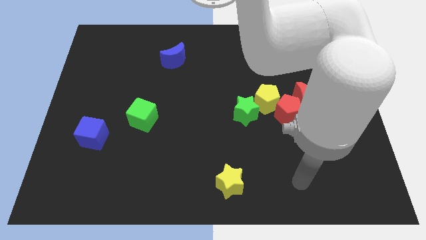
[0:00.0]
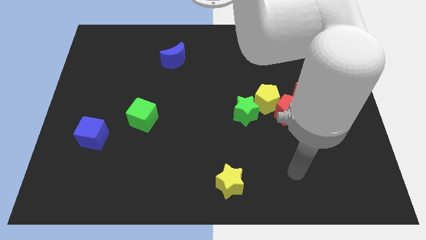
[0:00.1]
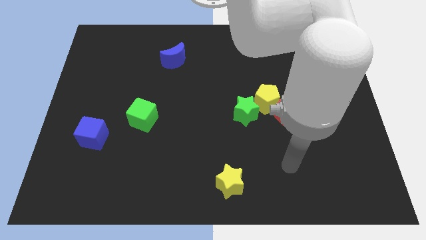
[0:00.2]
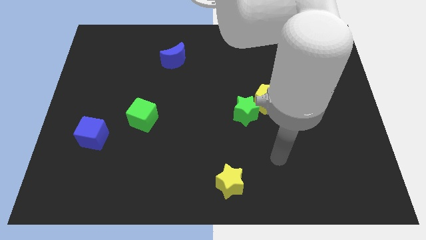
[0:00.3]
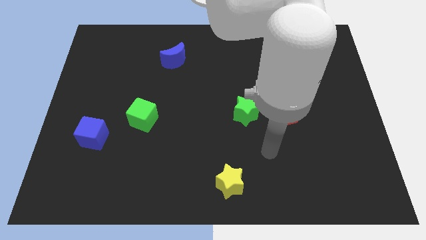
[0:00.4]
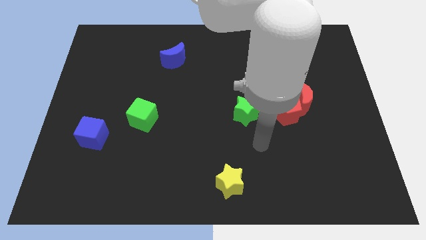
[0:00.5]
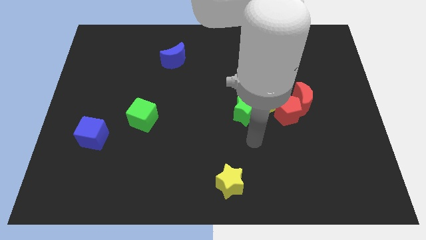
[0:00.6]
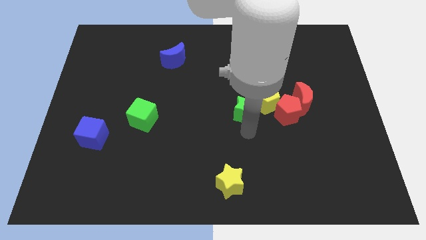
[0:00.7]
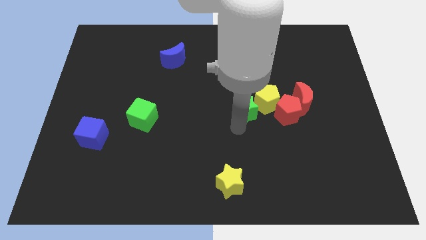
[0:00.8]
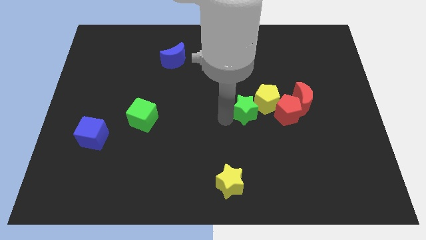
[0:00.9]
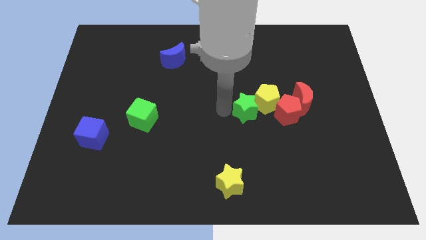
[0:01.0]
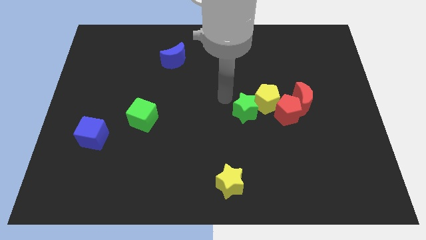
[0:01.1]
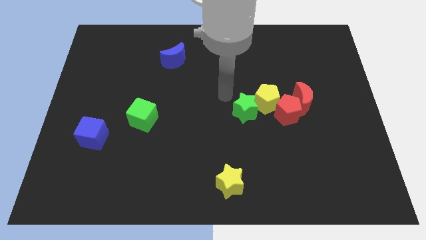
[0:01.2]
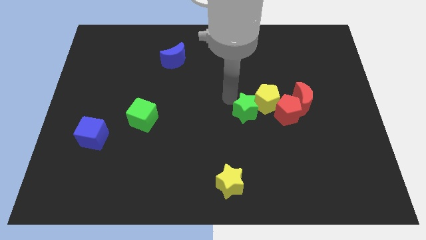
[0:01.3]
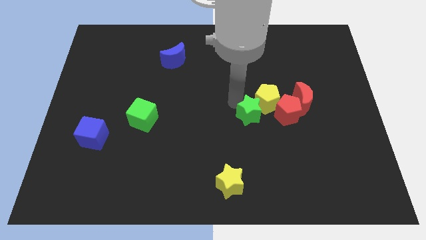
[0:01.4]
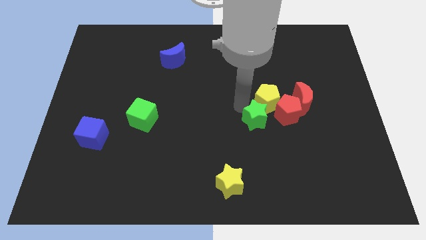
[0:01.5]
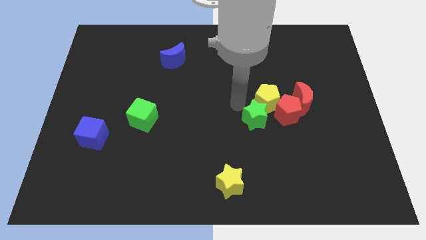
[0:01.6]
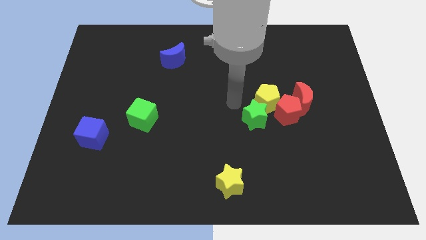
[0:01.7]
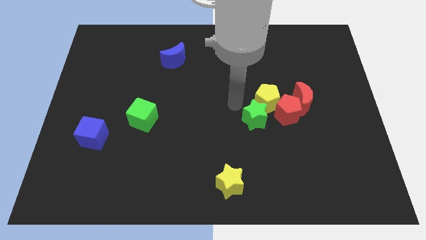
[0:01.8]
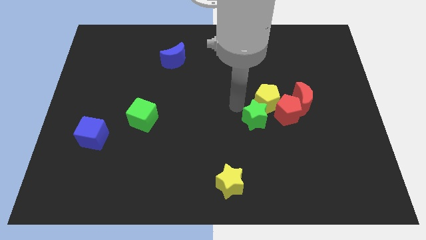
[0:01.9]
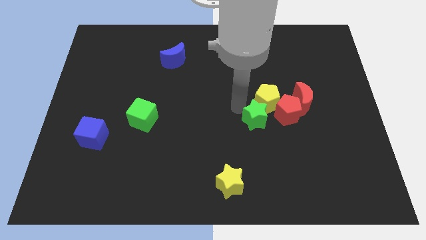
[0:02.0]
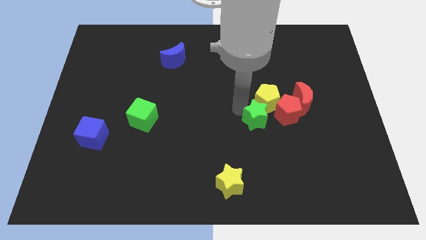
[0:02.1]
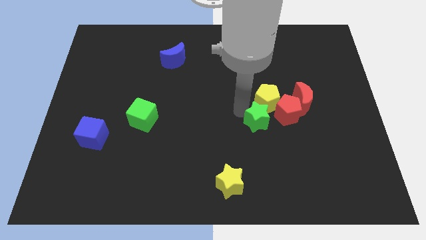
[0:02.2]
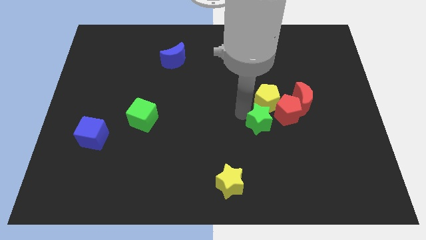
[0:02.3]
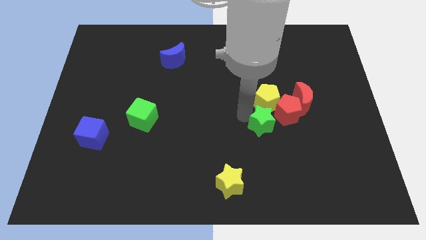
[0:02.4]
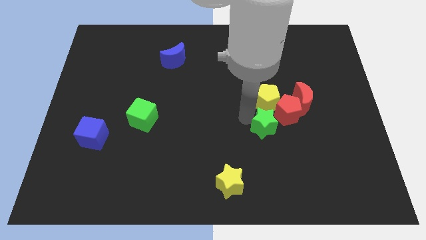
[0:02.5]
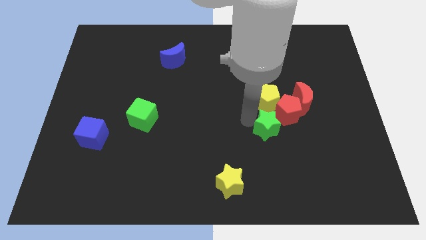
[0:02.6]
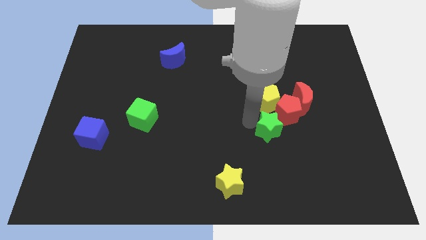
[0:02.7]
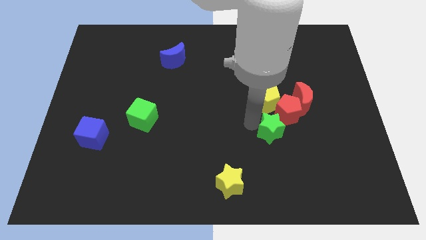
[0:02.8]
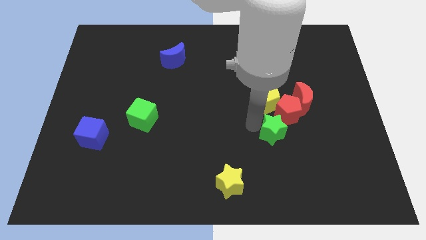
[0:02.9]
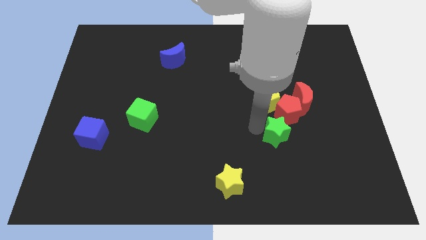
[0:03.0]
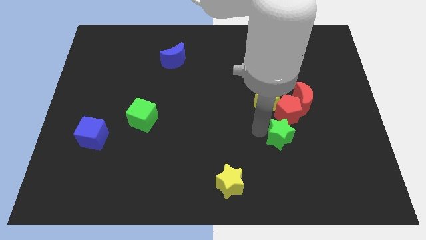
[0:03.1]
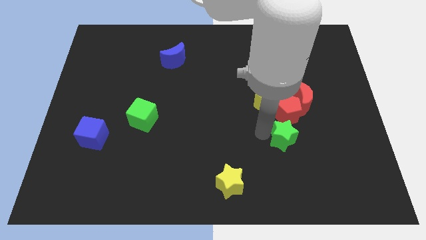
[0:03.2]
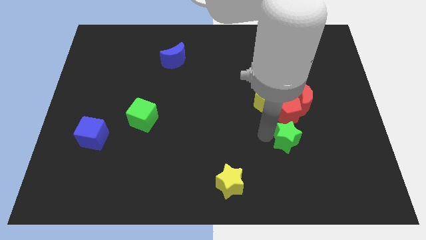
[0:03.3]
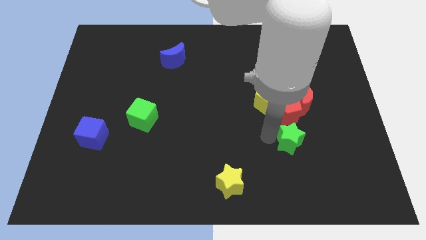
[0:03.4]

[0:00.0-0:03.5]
slightly slide the green star to the right

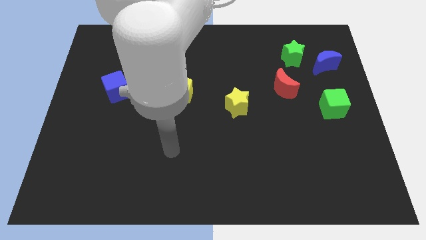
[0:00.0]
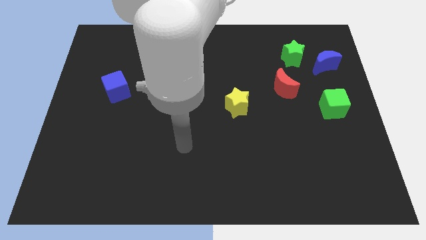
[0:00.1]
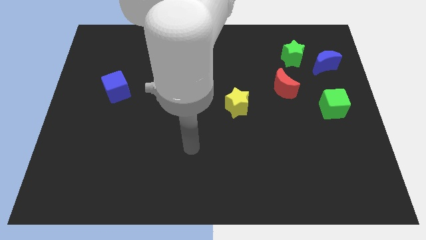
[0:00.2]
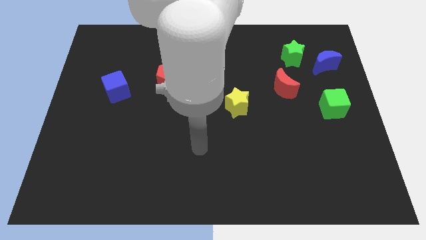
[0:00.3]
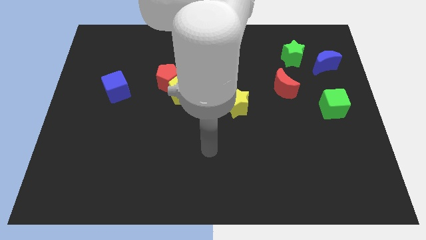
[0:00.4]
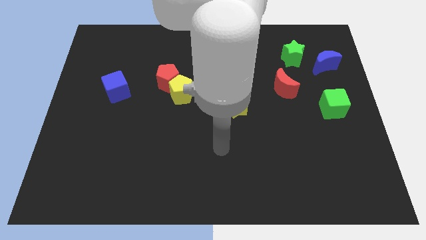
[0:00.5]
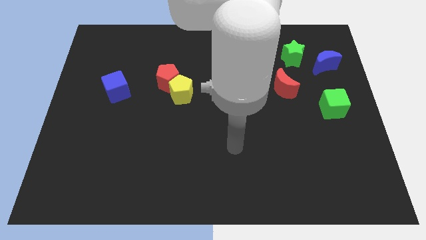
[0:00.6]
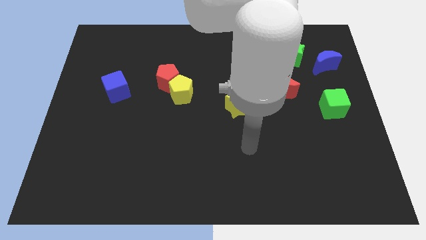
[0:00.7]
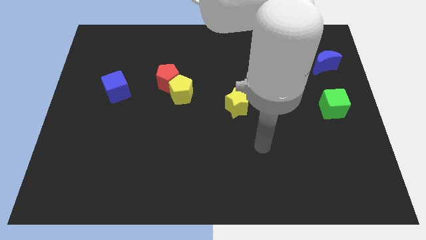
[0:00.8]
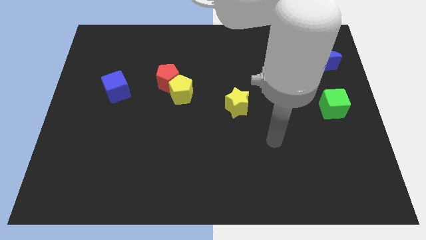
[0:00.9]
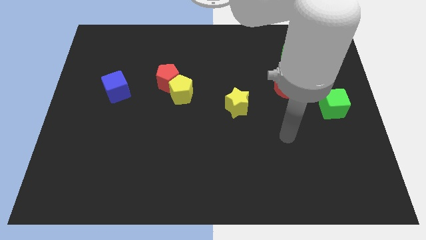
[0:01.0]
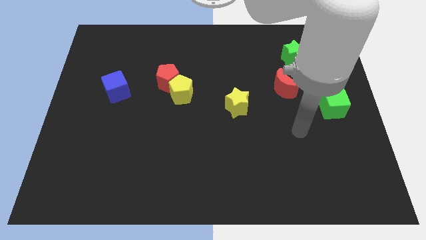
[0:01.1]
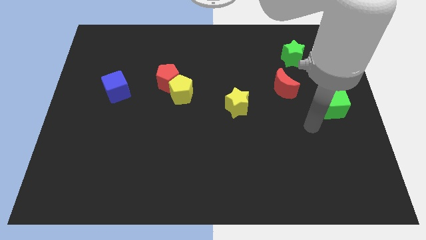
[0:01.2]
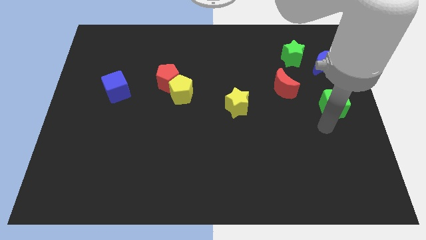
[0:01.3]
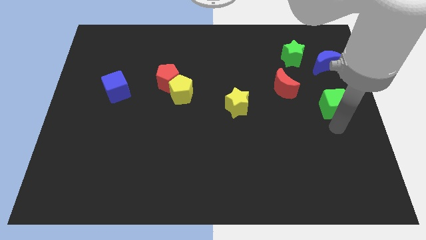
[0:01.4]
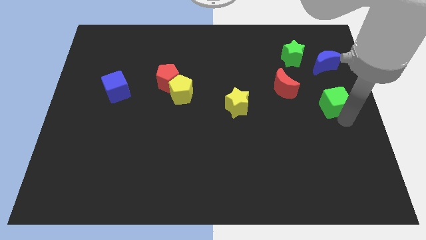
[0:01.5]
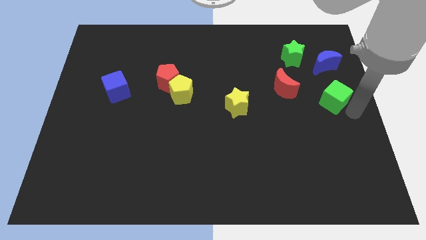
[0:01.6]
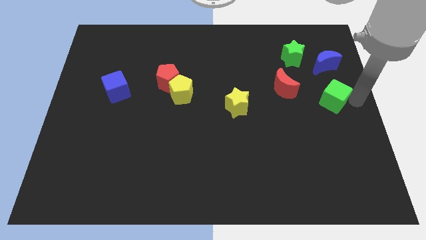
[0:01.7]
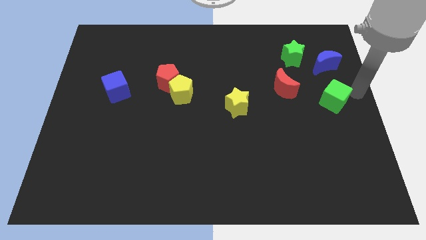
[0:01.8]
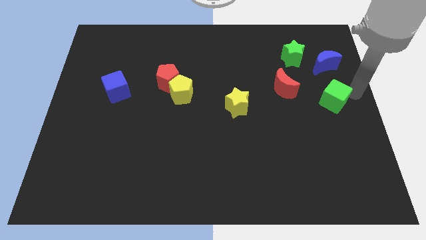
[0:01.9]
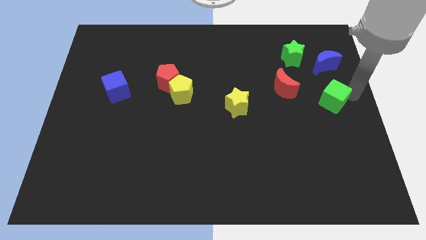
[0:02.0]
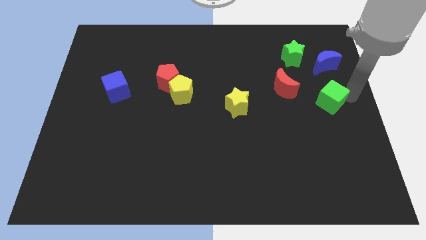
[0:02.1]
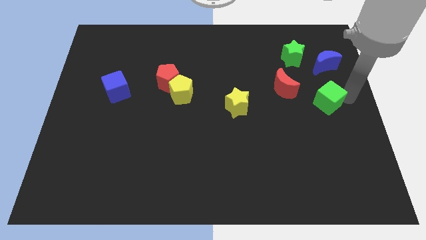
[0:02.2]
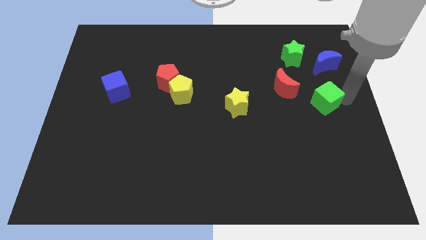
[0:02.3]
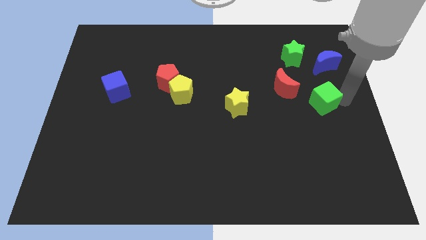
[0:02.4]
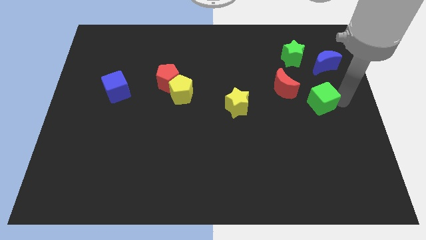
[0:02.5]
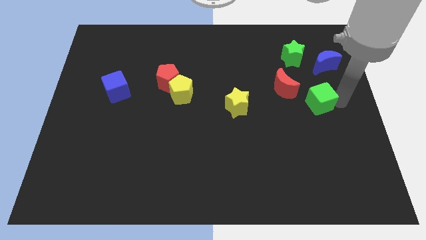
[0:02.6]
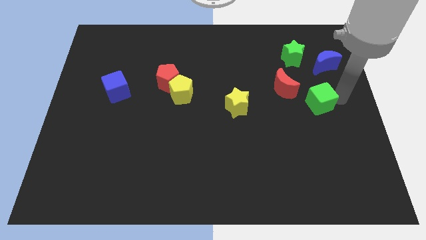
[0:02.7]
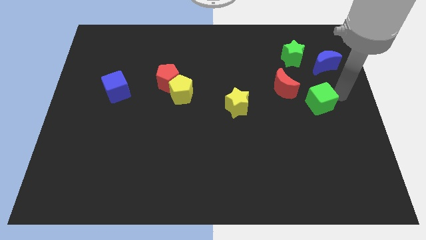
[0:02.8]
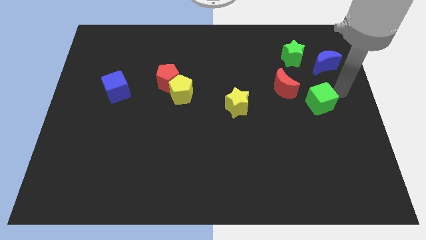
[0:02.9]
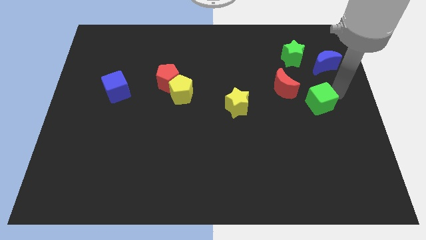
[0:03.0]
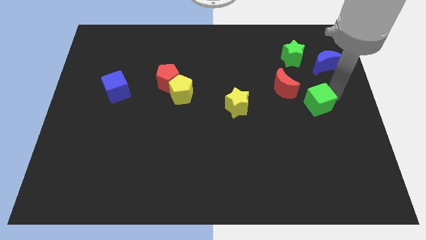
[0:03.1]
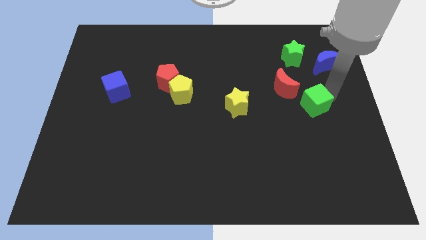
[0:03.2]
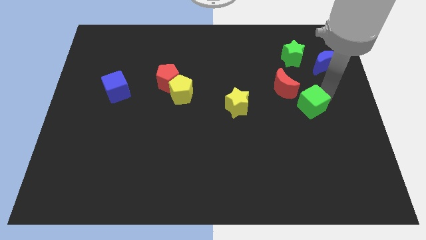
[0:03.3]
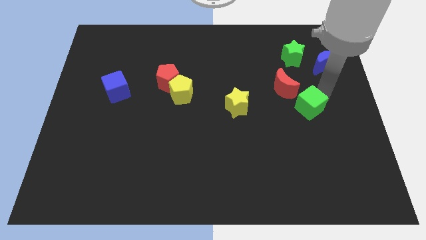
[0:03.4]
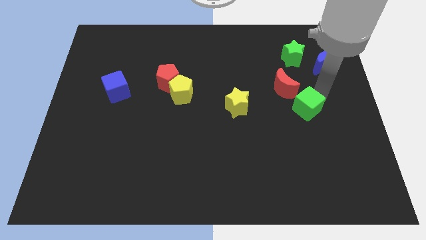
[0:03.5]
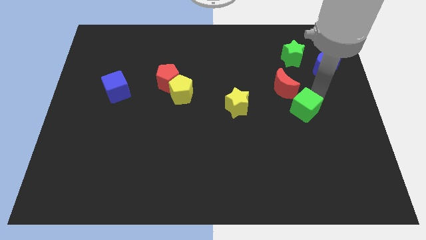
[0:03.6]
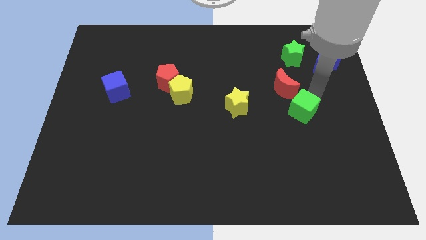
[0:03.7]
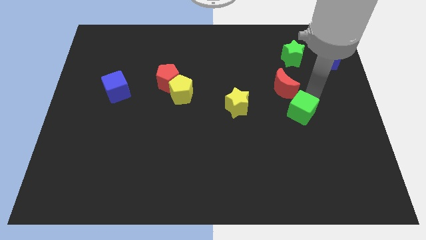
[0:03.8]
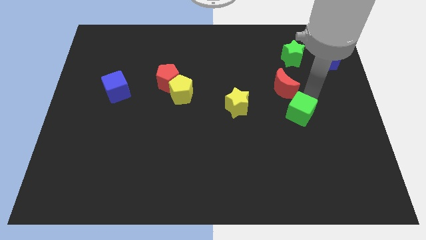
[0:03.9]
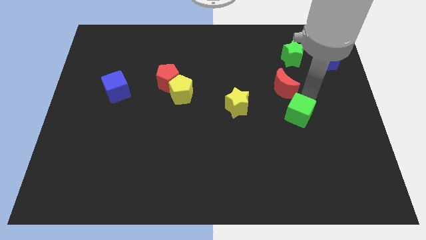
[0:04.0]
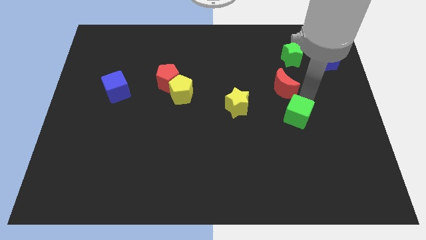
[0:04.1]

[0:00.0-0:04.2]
push the green cube a little bit down and then to the left
